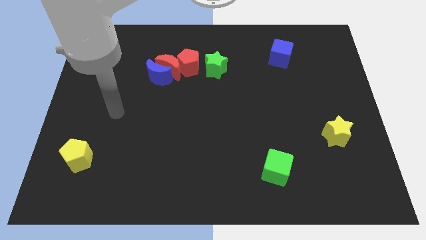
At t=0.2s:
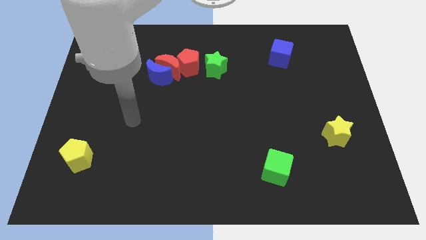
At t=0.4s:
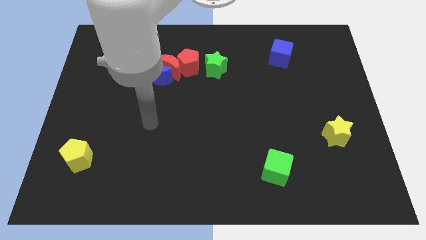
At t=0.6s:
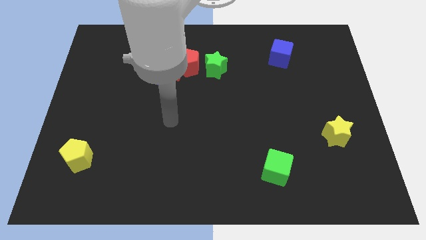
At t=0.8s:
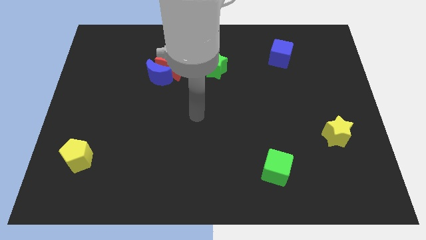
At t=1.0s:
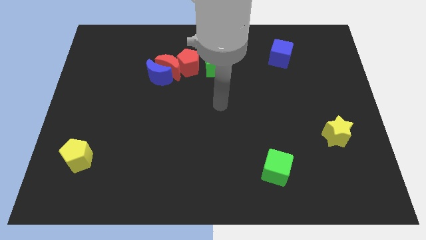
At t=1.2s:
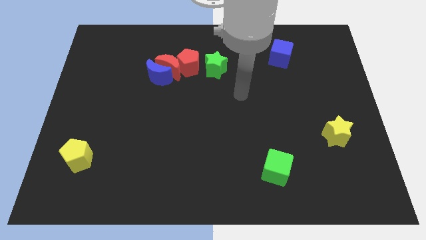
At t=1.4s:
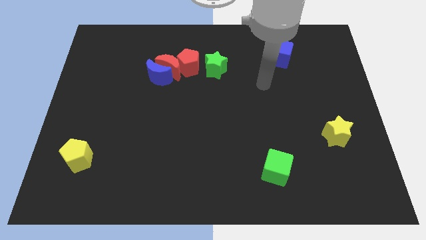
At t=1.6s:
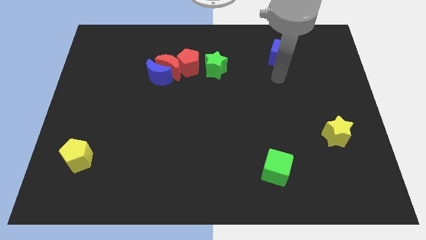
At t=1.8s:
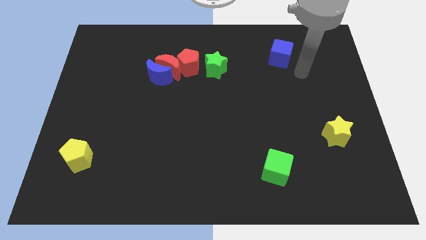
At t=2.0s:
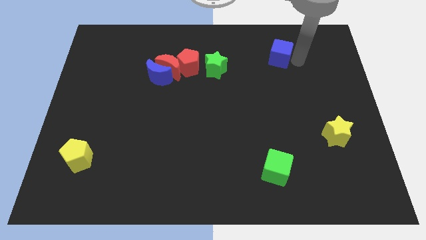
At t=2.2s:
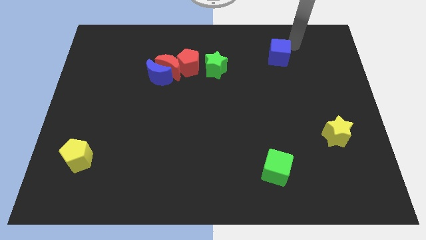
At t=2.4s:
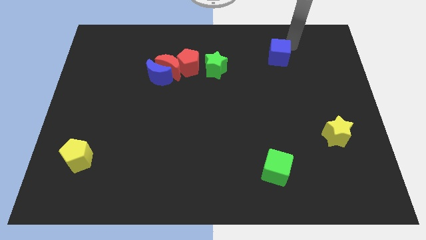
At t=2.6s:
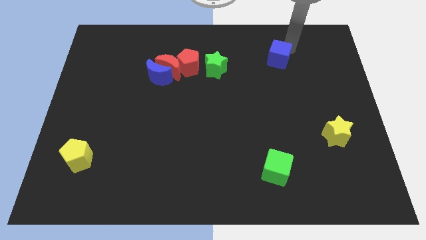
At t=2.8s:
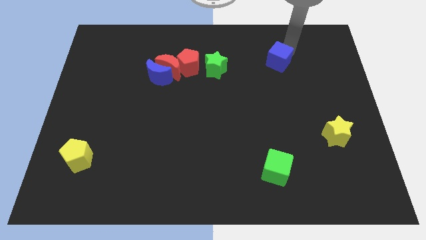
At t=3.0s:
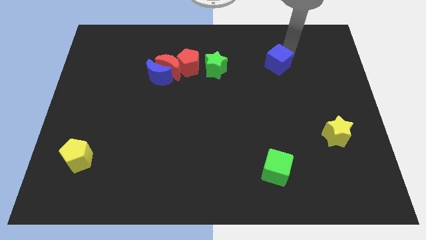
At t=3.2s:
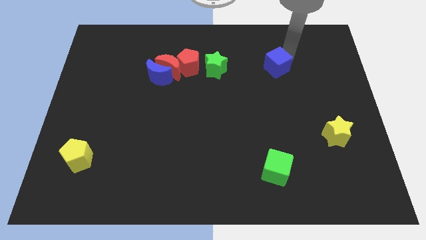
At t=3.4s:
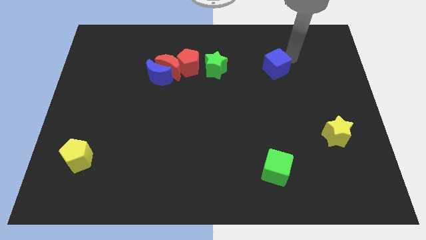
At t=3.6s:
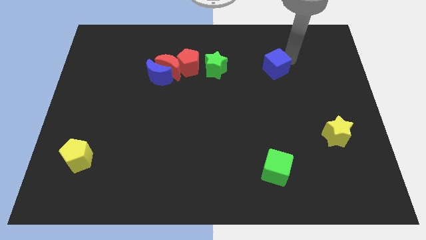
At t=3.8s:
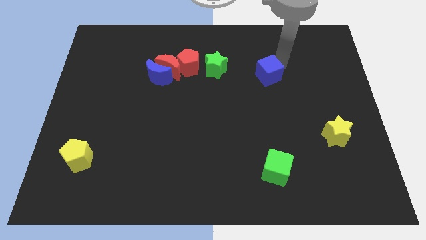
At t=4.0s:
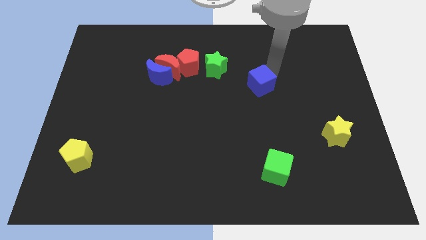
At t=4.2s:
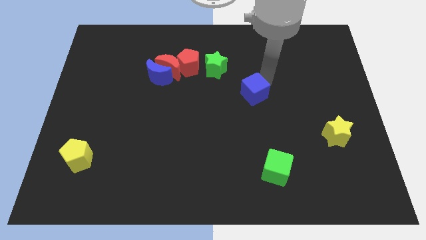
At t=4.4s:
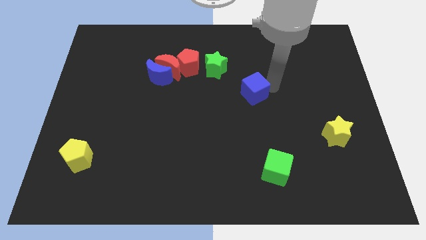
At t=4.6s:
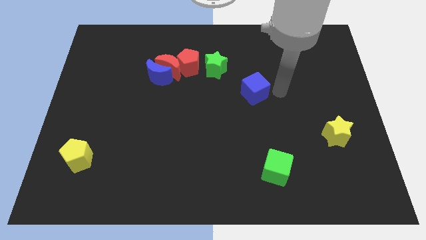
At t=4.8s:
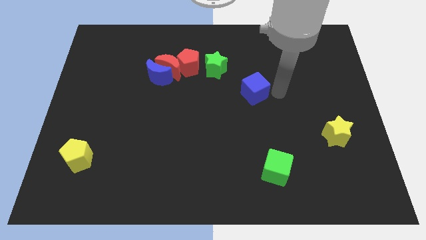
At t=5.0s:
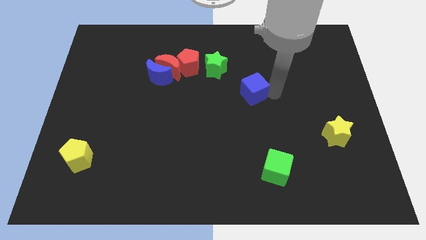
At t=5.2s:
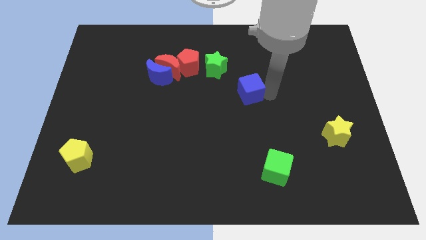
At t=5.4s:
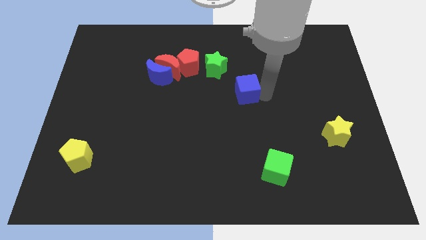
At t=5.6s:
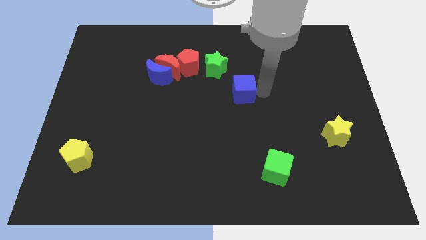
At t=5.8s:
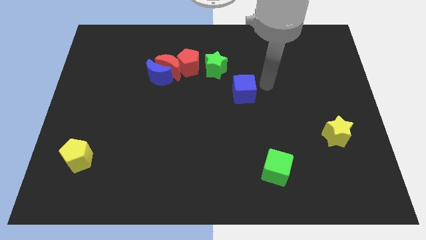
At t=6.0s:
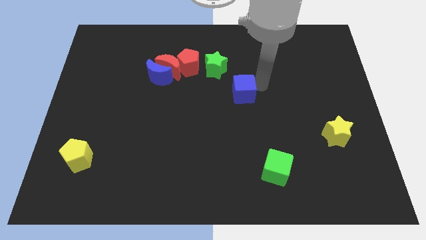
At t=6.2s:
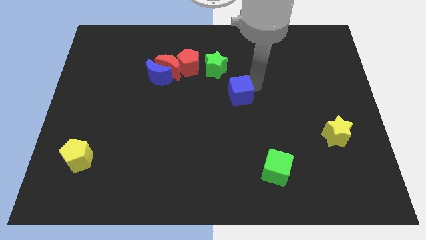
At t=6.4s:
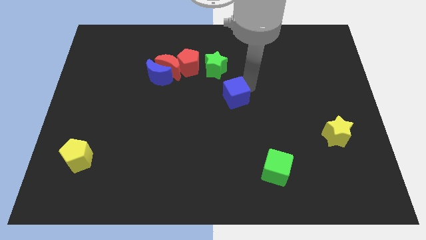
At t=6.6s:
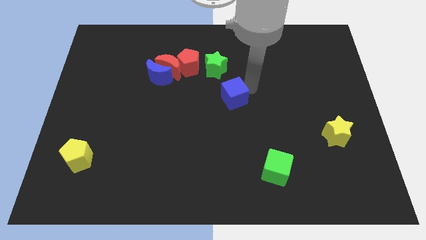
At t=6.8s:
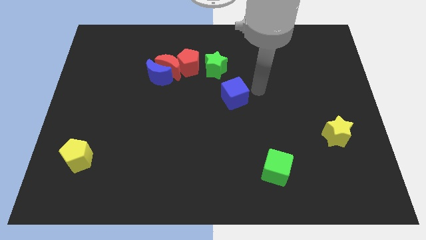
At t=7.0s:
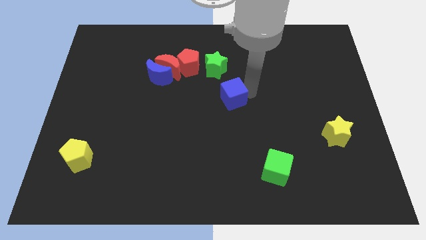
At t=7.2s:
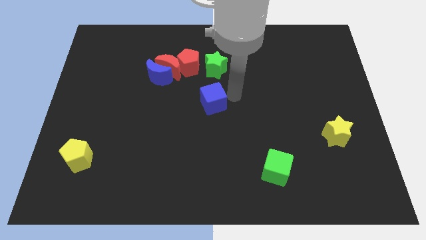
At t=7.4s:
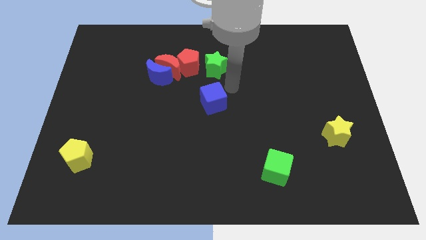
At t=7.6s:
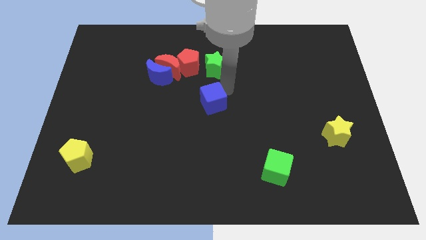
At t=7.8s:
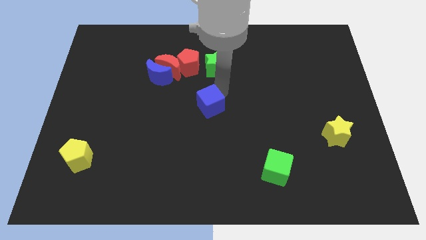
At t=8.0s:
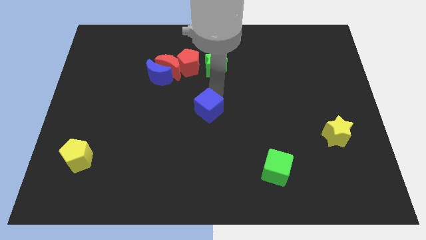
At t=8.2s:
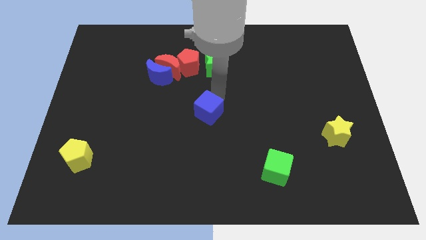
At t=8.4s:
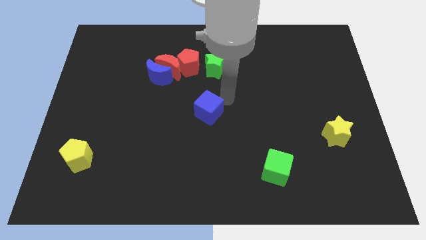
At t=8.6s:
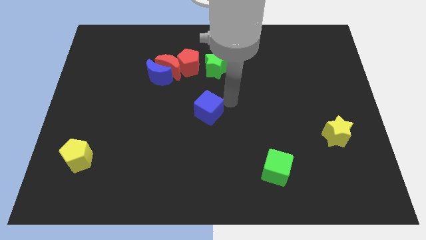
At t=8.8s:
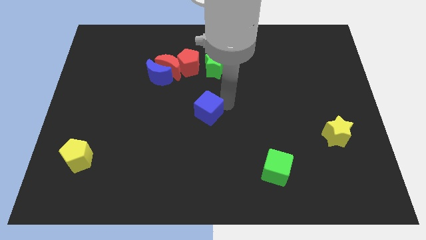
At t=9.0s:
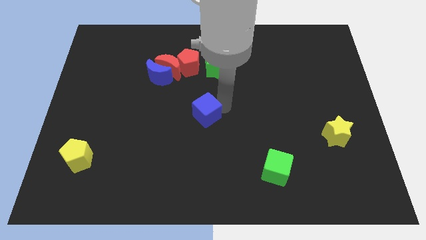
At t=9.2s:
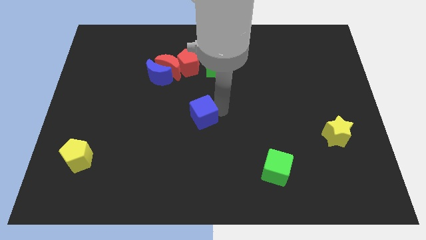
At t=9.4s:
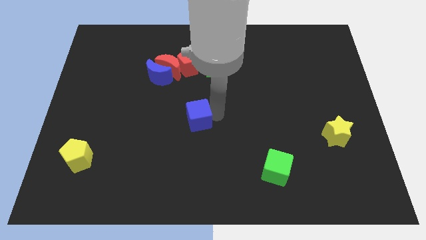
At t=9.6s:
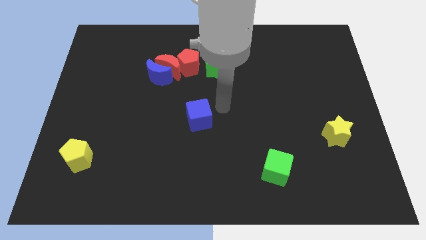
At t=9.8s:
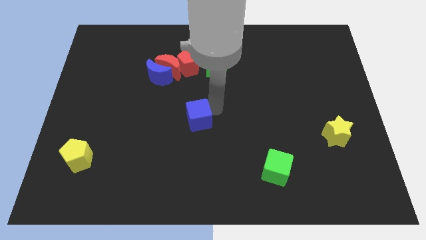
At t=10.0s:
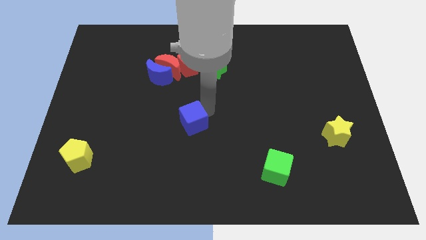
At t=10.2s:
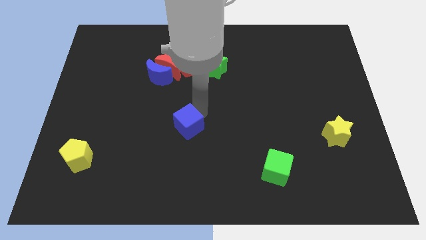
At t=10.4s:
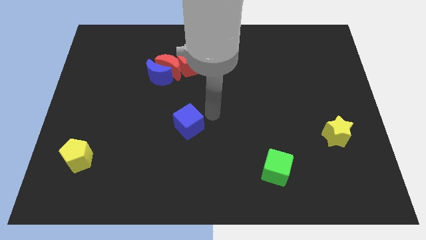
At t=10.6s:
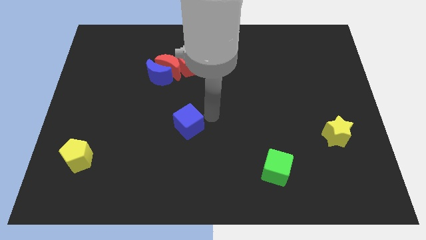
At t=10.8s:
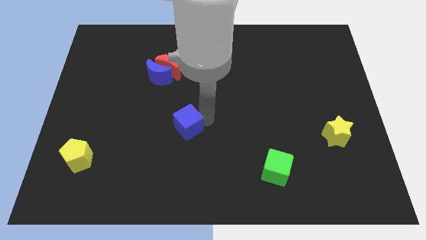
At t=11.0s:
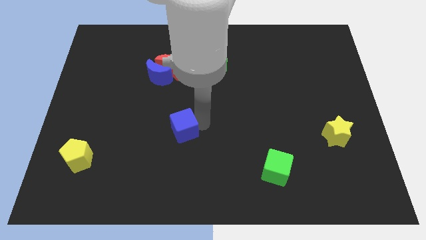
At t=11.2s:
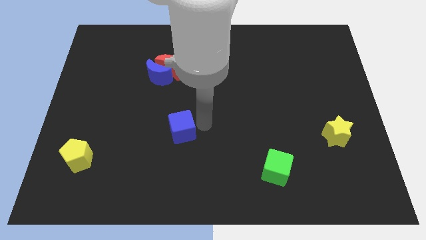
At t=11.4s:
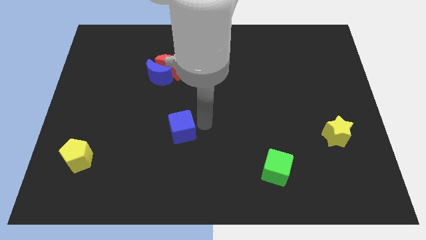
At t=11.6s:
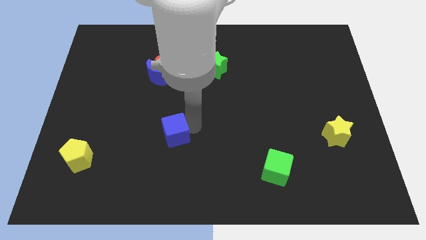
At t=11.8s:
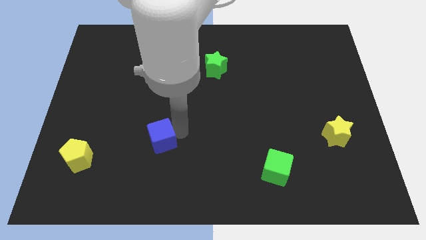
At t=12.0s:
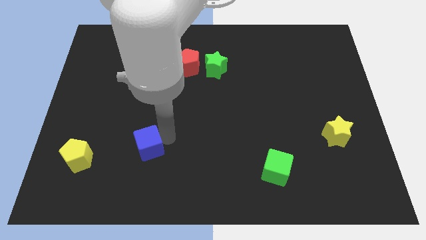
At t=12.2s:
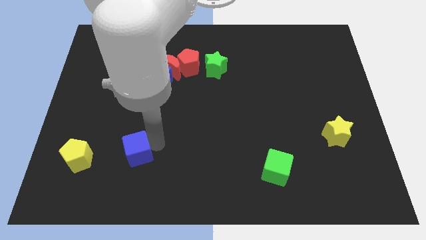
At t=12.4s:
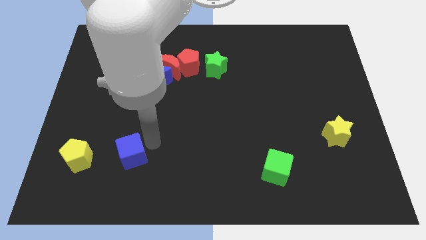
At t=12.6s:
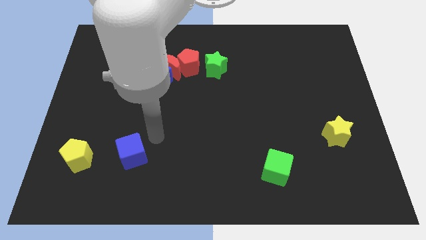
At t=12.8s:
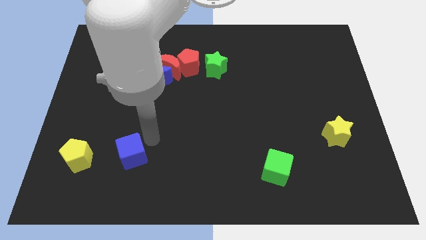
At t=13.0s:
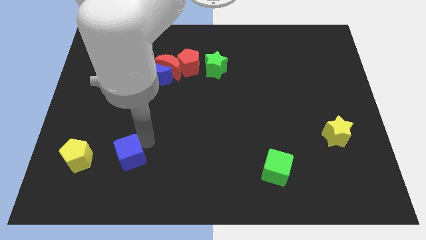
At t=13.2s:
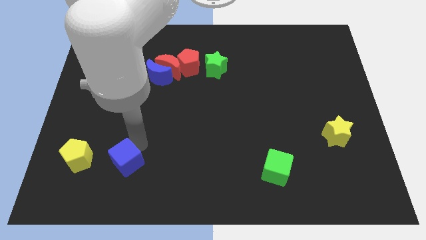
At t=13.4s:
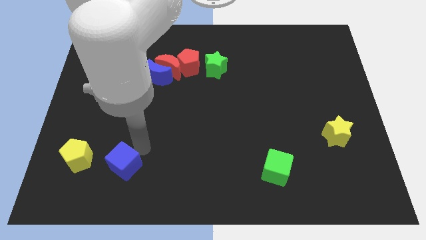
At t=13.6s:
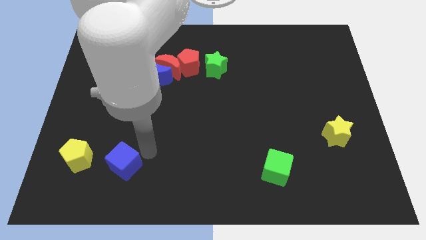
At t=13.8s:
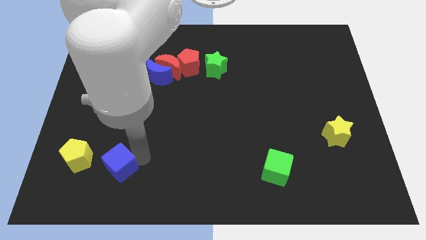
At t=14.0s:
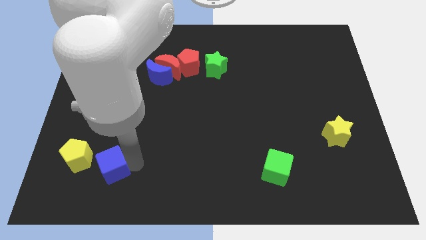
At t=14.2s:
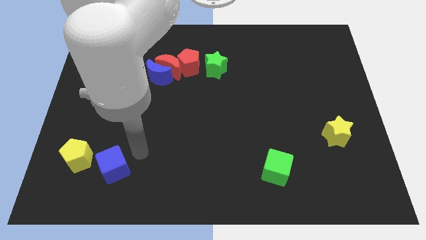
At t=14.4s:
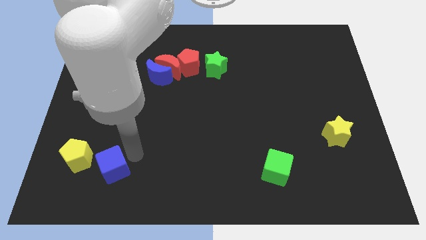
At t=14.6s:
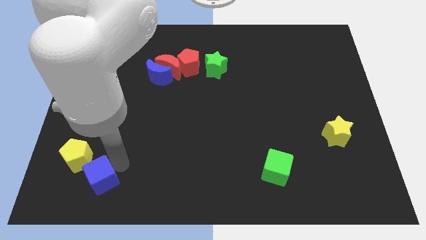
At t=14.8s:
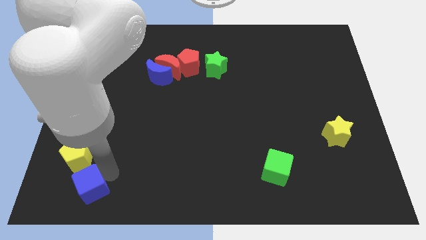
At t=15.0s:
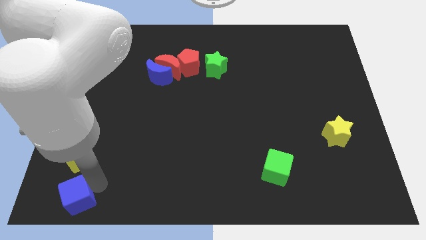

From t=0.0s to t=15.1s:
slide the blue cube to the lower left corner
